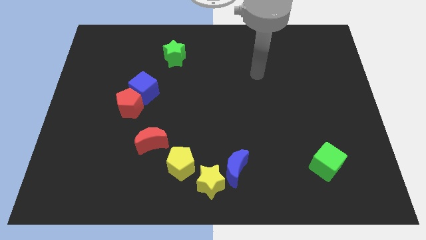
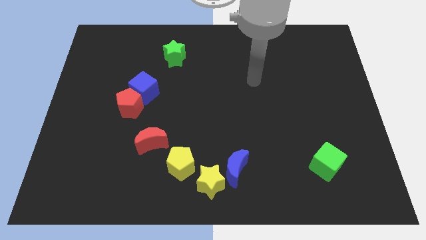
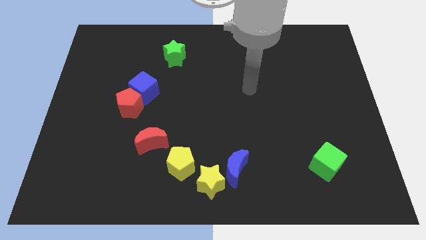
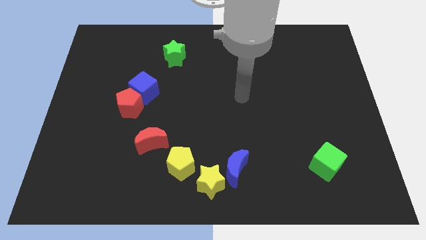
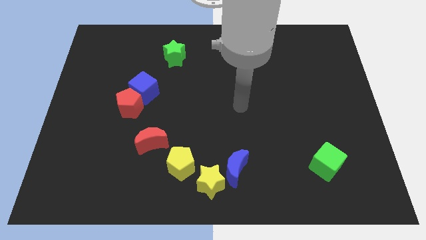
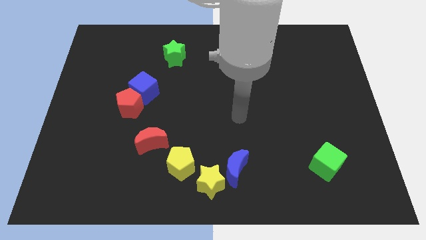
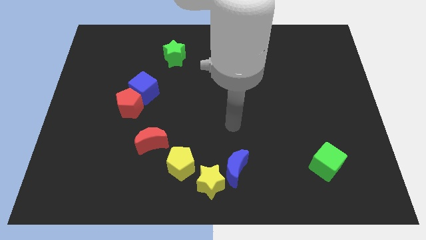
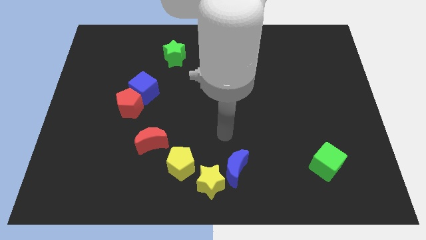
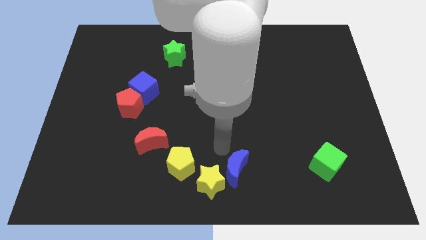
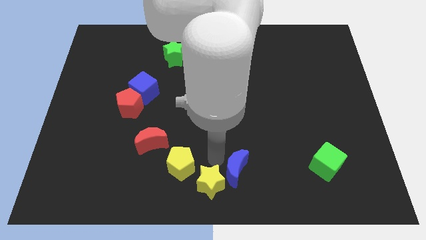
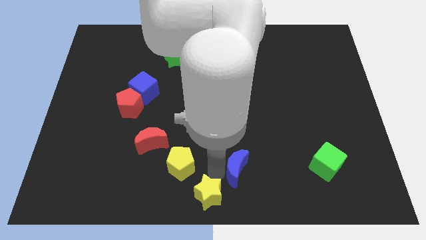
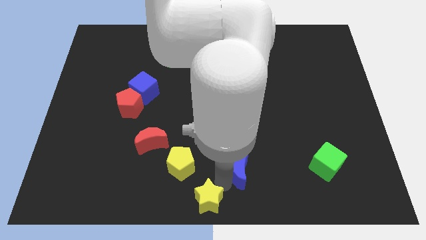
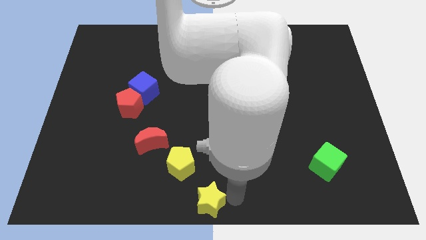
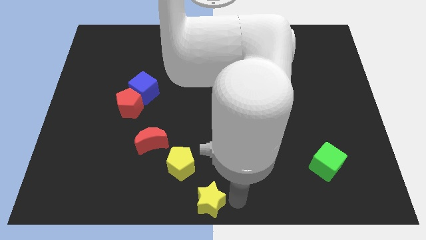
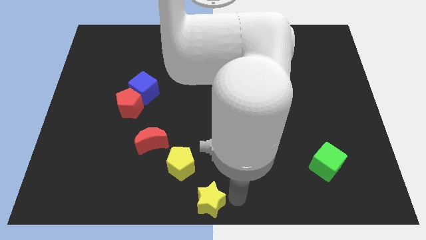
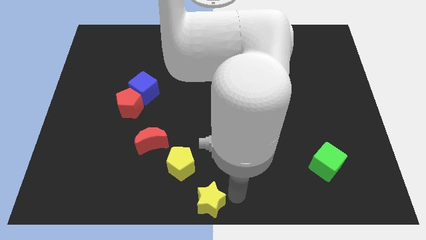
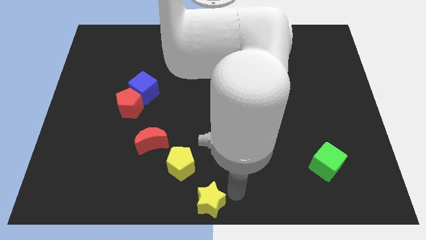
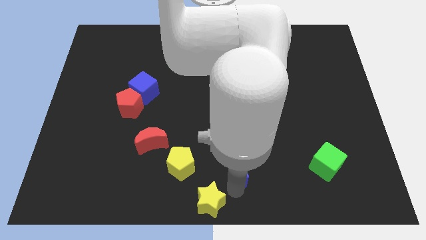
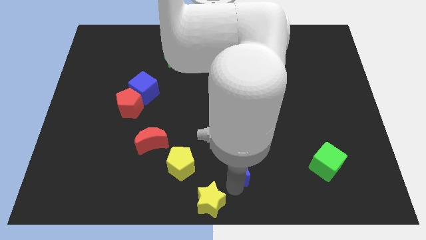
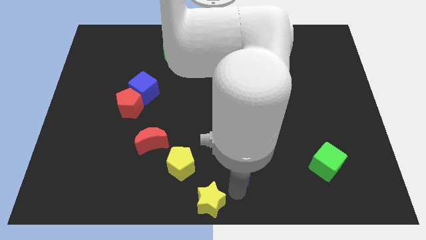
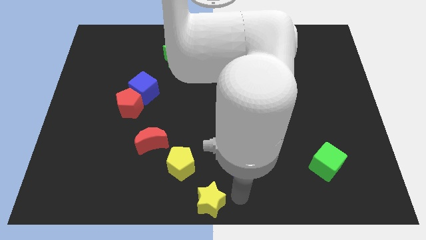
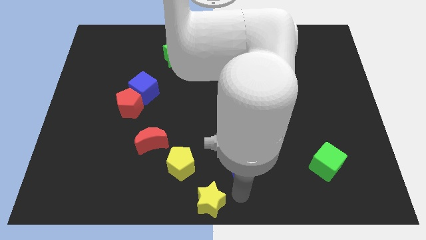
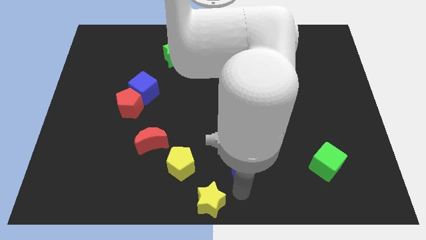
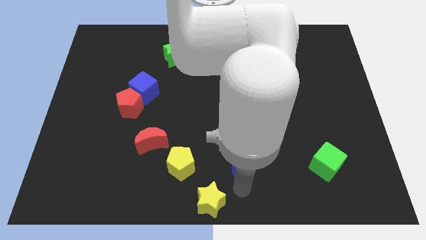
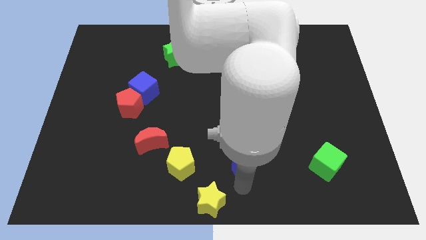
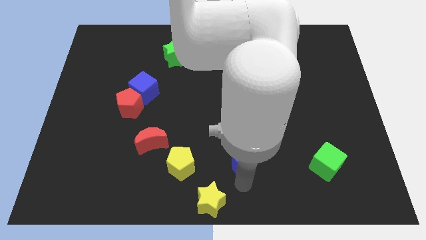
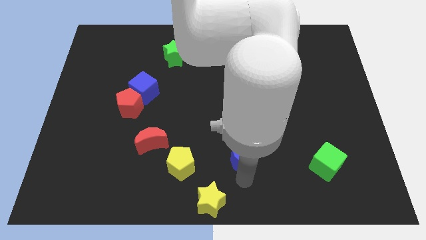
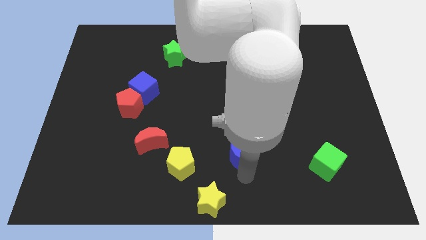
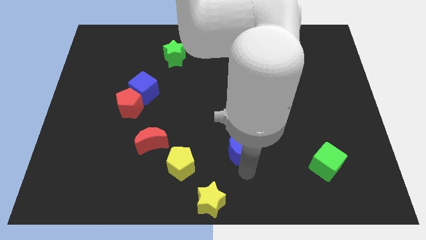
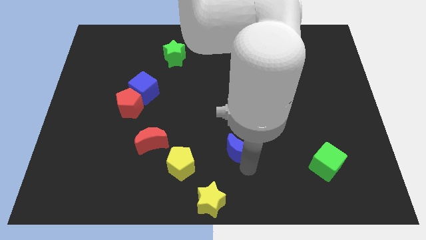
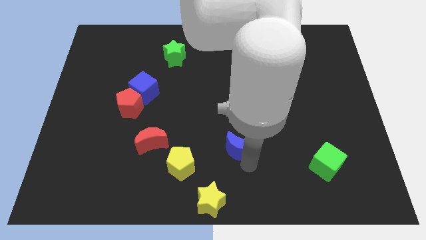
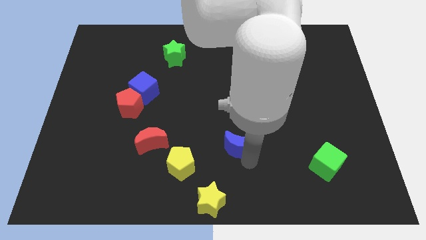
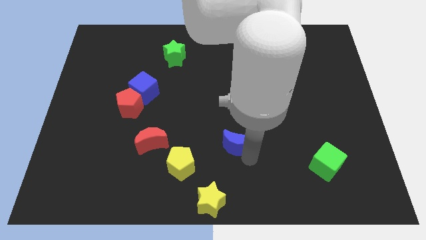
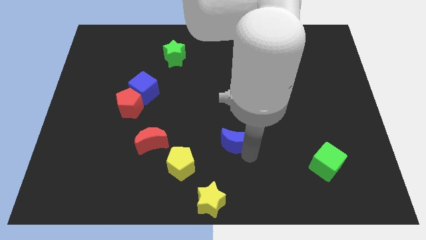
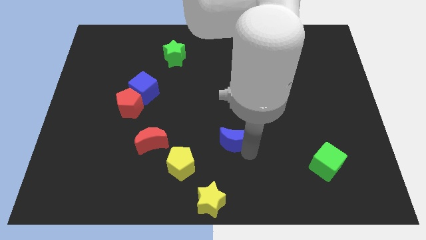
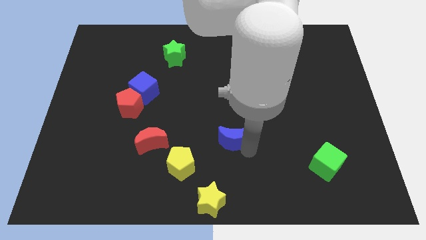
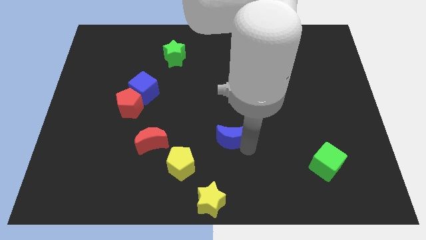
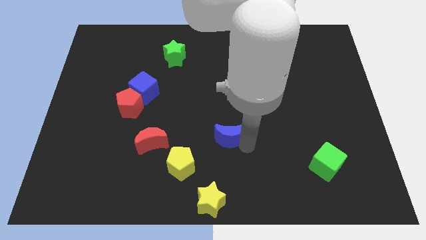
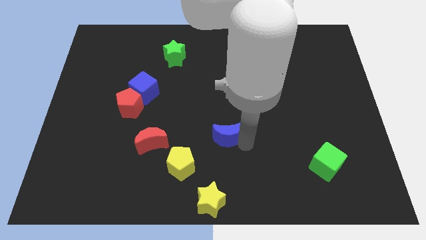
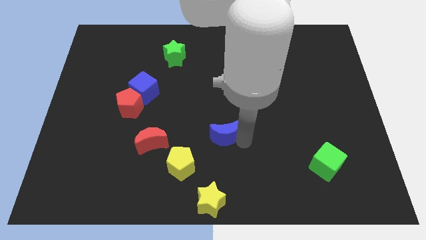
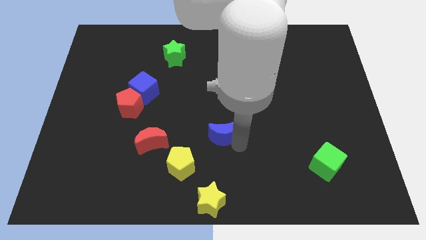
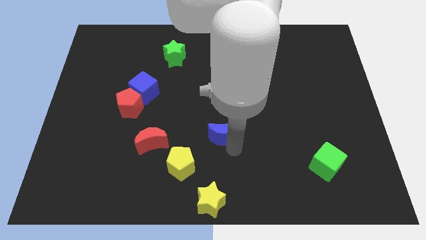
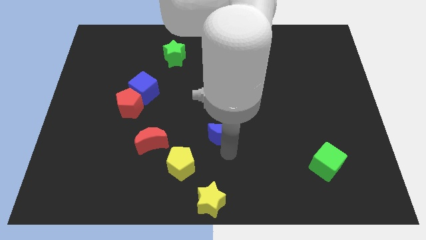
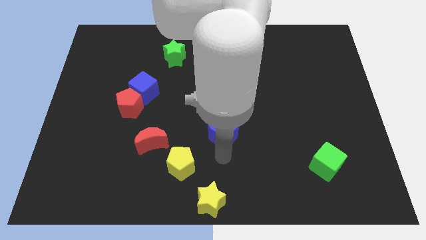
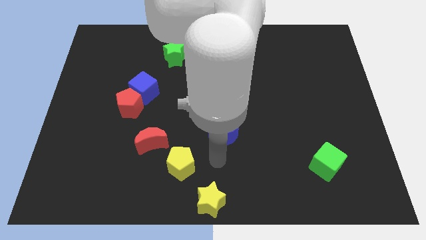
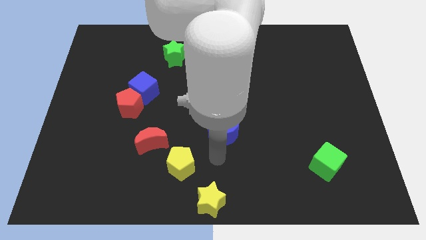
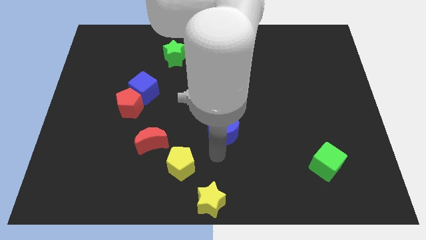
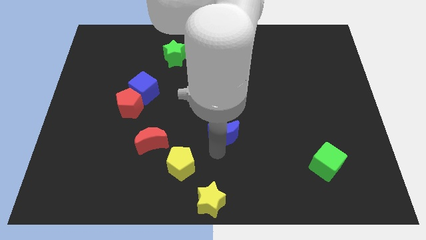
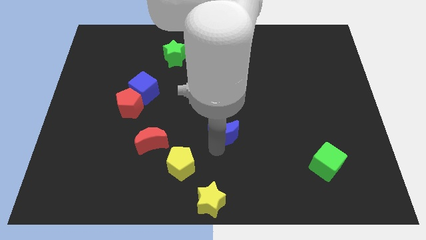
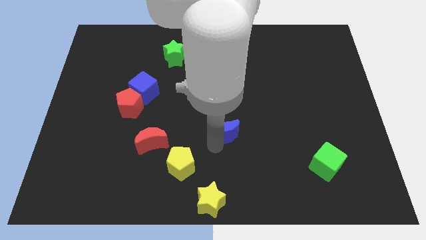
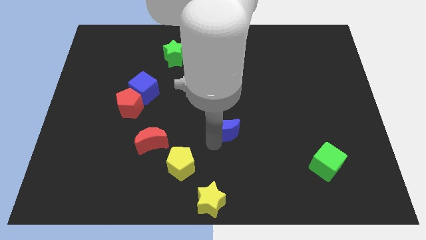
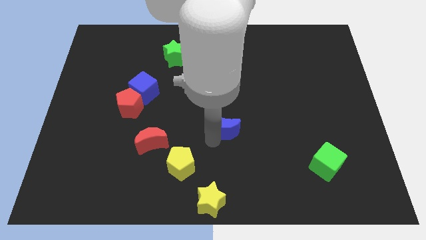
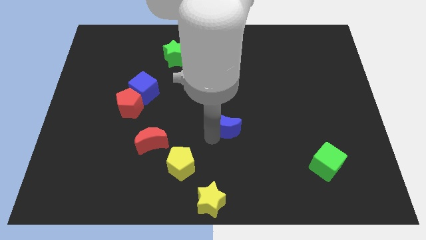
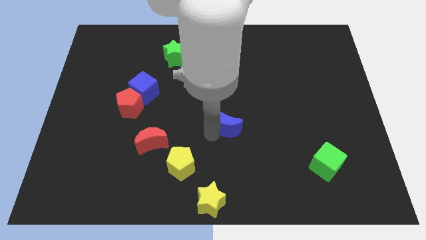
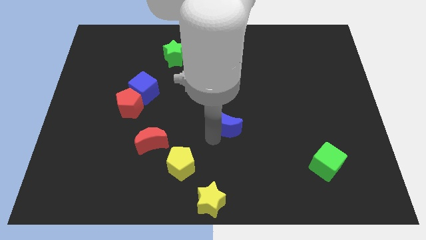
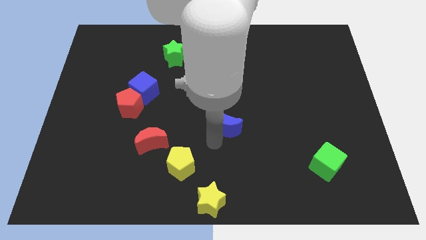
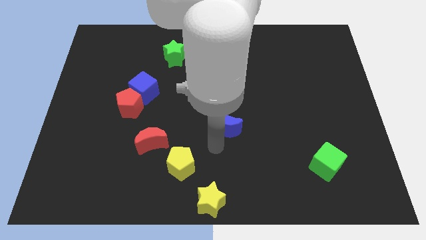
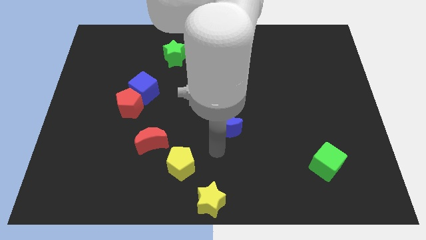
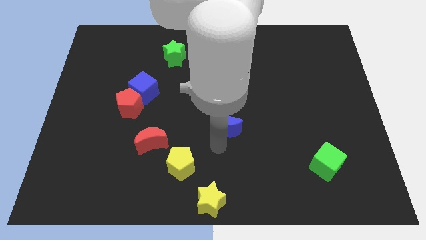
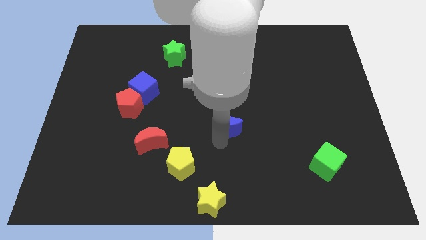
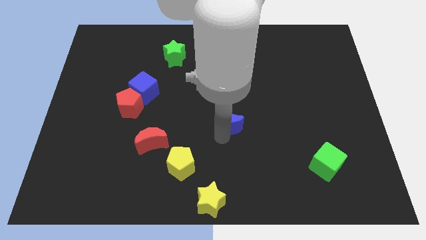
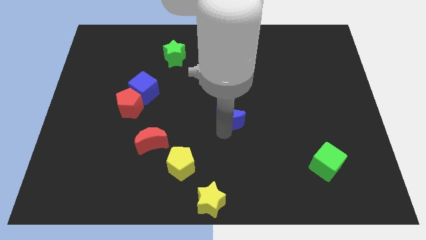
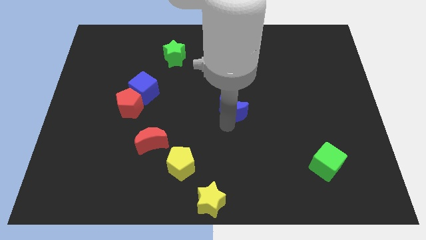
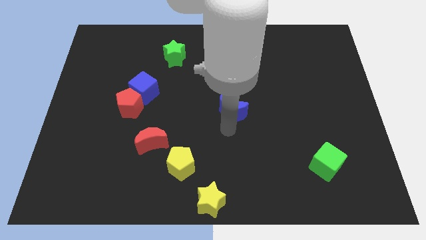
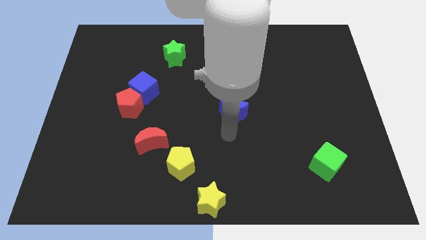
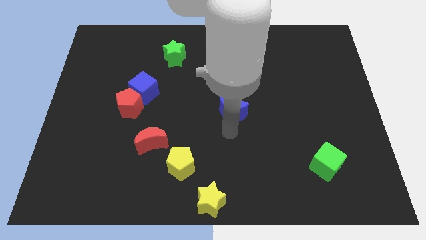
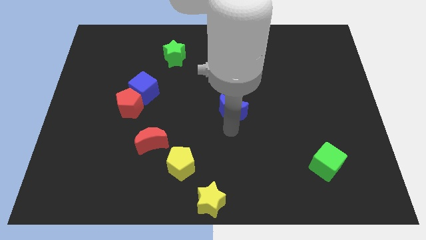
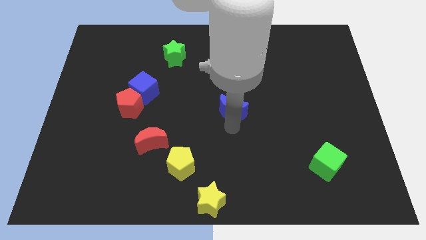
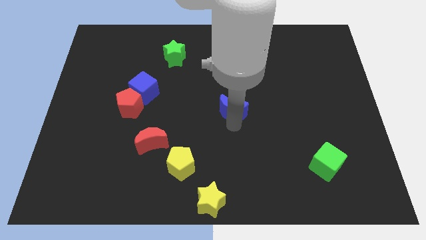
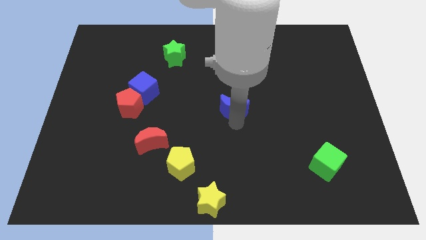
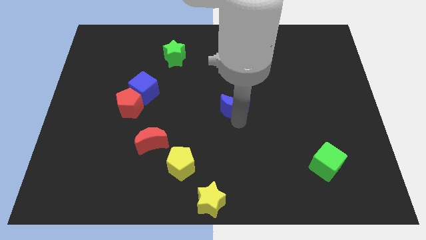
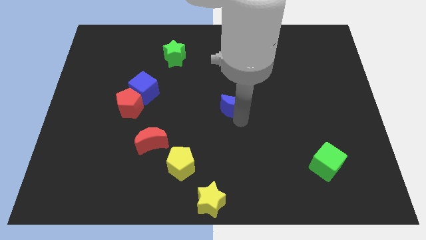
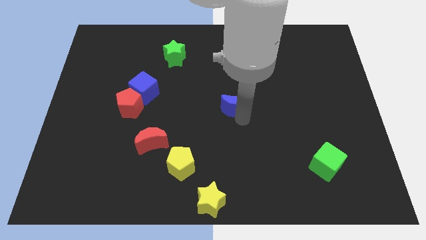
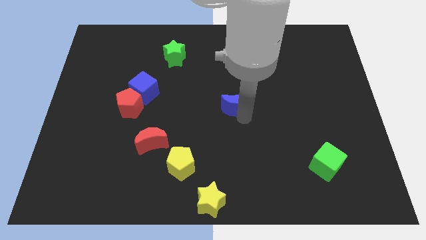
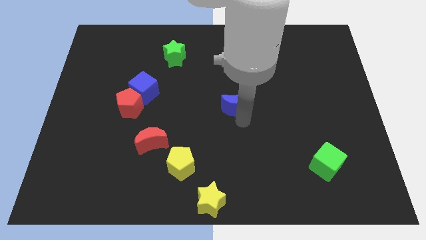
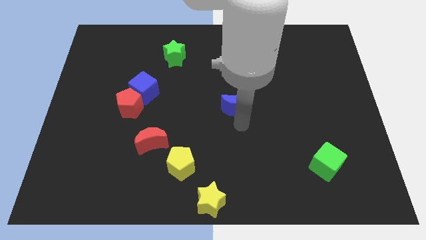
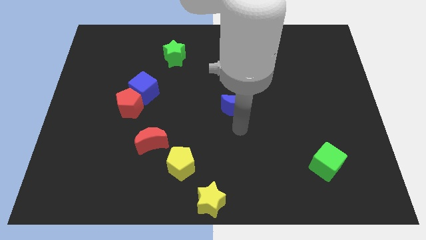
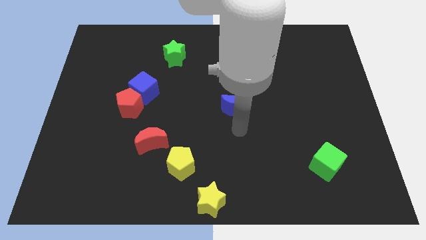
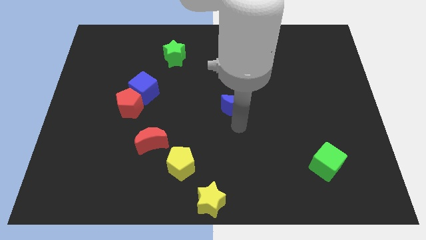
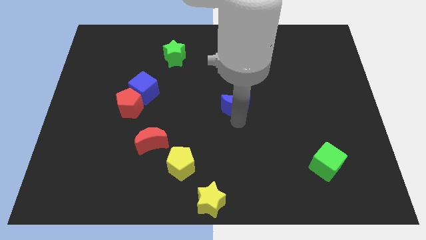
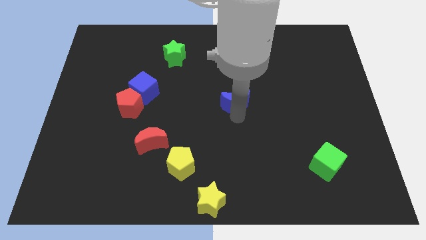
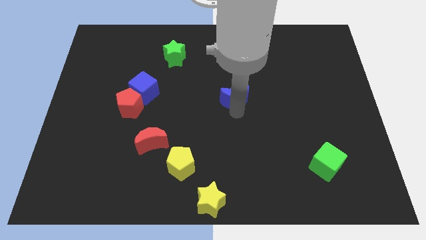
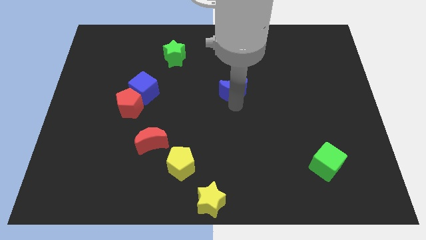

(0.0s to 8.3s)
push the blue moon up
